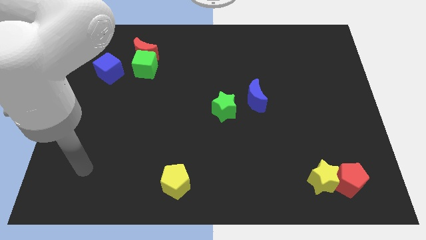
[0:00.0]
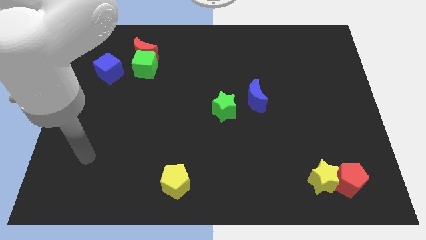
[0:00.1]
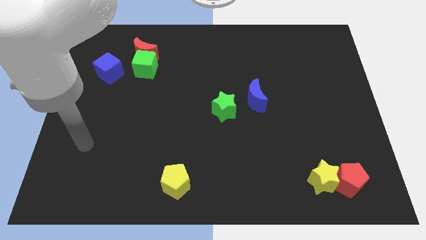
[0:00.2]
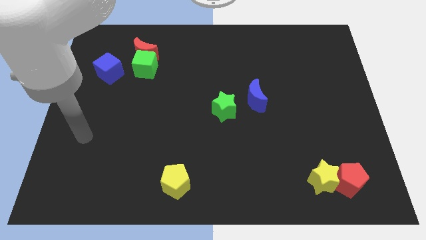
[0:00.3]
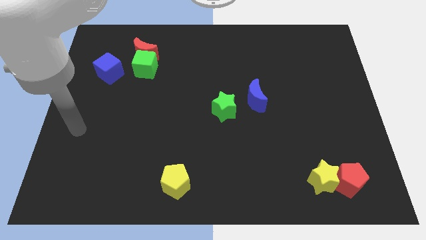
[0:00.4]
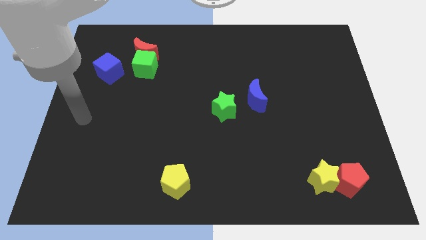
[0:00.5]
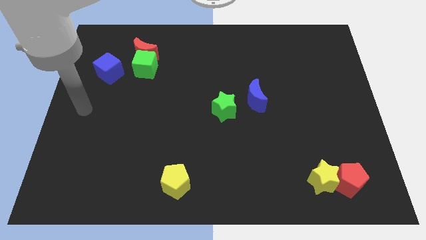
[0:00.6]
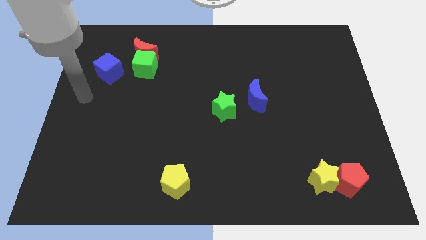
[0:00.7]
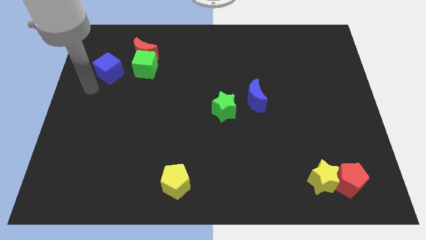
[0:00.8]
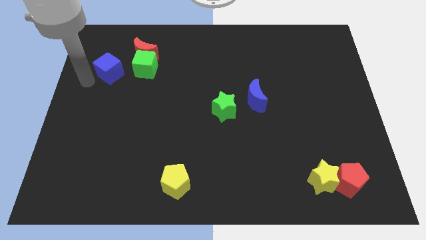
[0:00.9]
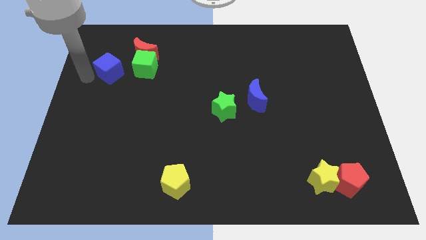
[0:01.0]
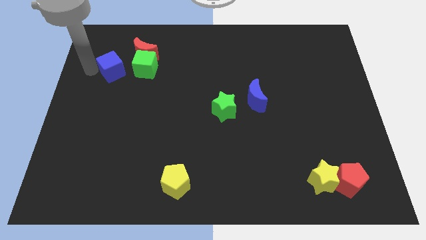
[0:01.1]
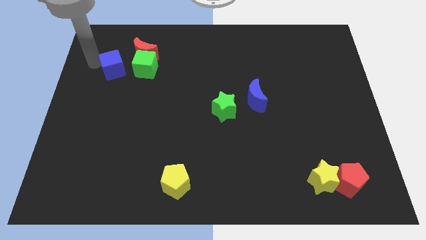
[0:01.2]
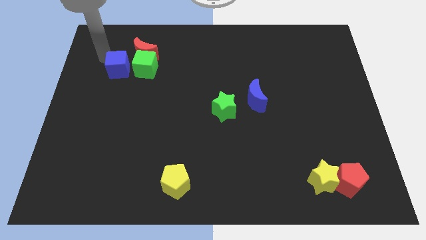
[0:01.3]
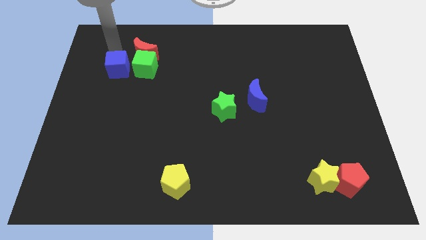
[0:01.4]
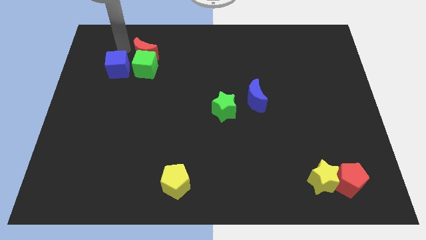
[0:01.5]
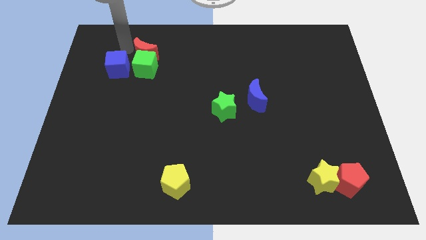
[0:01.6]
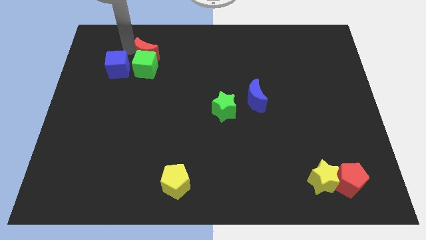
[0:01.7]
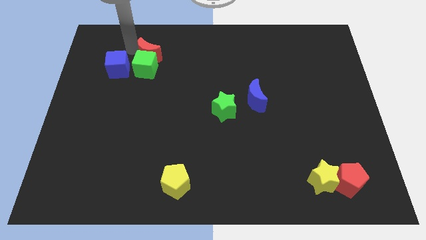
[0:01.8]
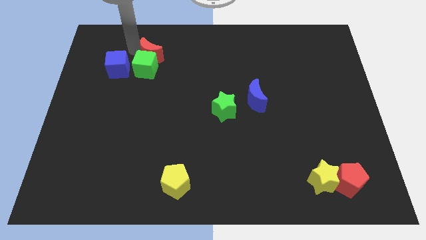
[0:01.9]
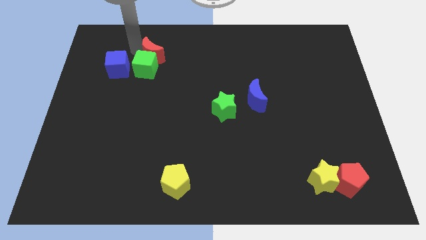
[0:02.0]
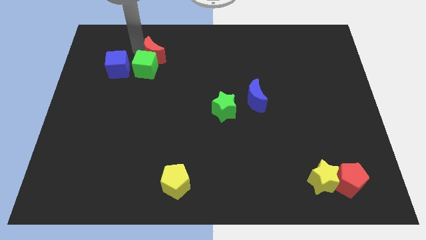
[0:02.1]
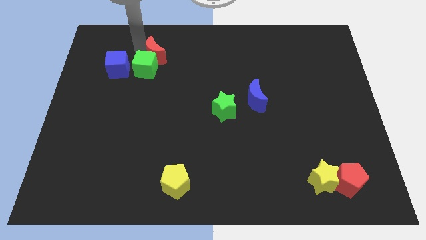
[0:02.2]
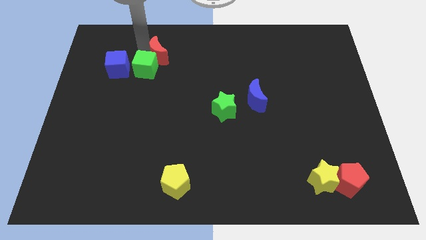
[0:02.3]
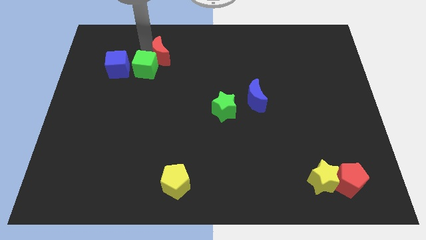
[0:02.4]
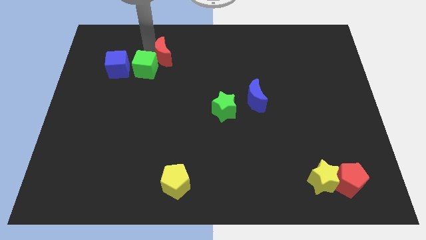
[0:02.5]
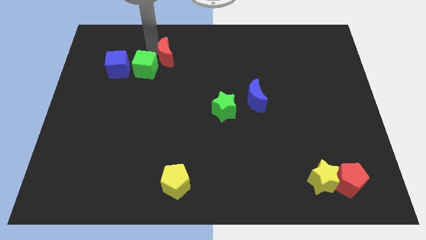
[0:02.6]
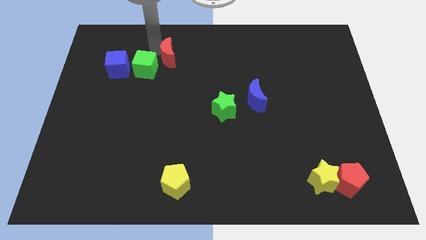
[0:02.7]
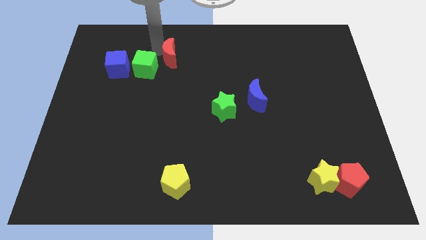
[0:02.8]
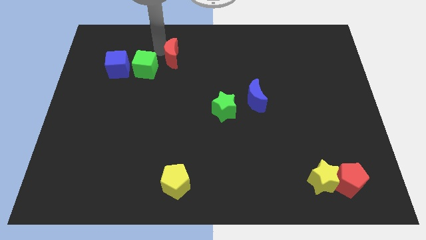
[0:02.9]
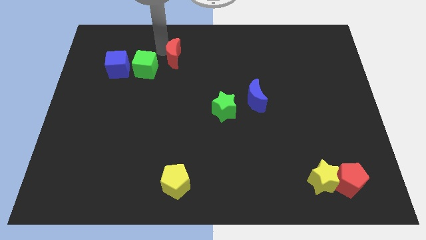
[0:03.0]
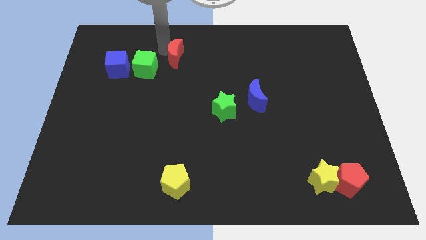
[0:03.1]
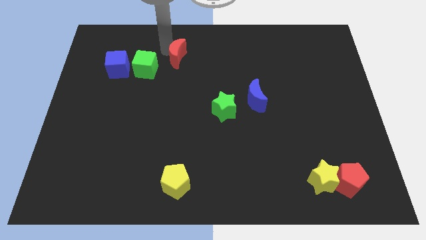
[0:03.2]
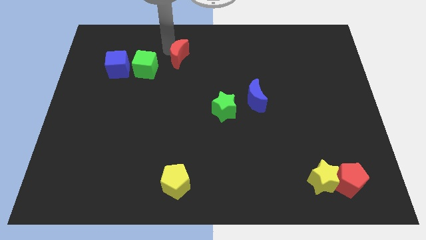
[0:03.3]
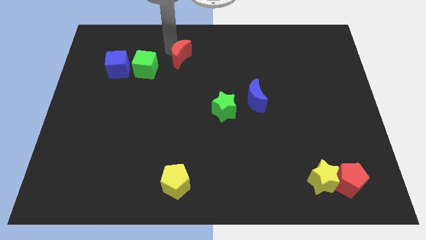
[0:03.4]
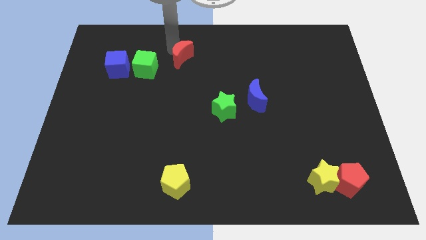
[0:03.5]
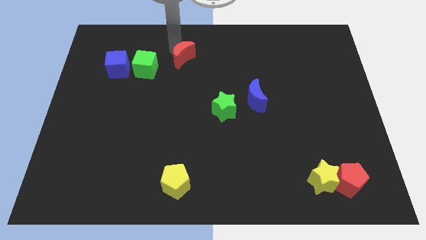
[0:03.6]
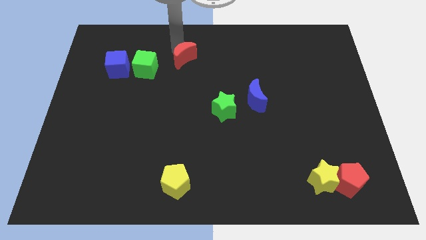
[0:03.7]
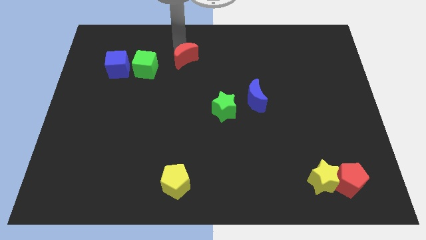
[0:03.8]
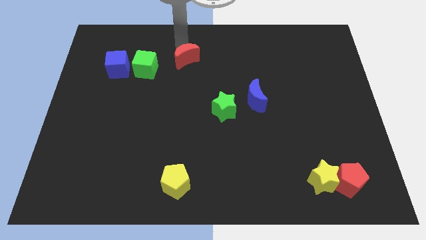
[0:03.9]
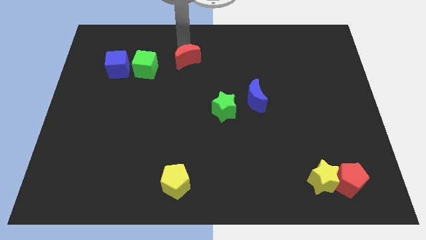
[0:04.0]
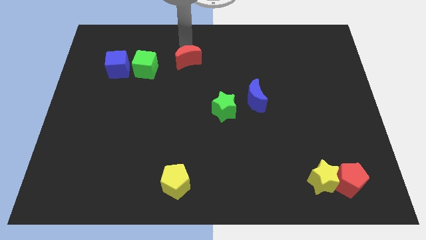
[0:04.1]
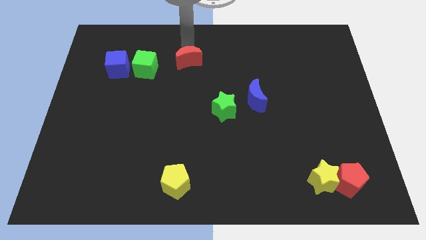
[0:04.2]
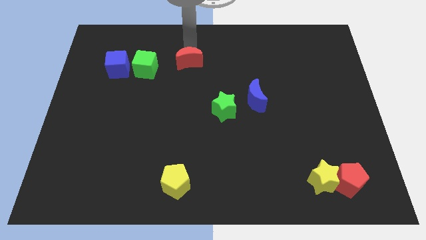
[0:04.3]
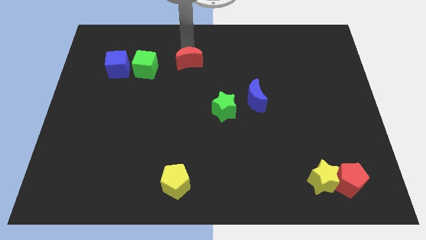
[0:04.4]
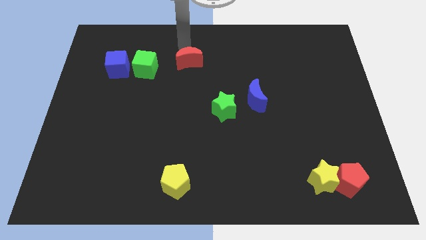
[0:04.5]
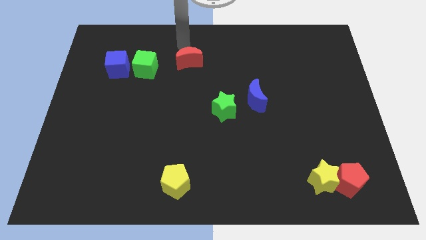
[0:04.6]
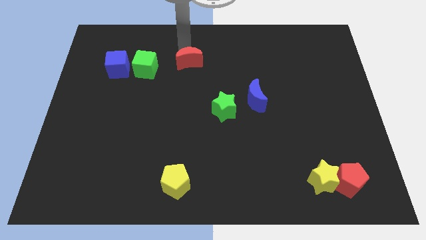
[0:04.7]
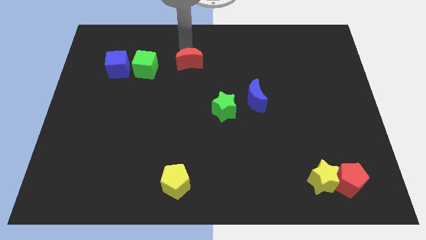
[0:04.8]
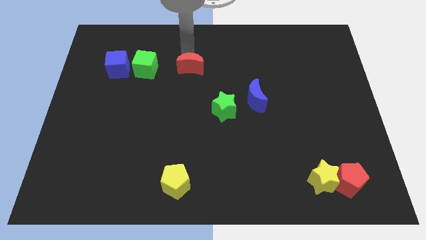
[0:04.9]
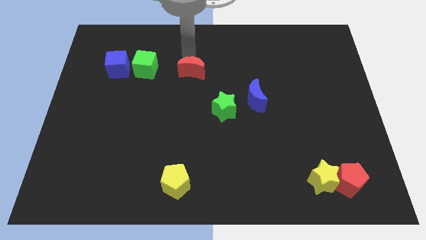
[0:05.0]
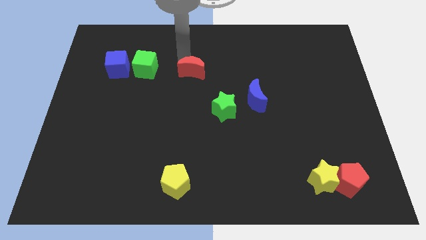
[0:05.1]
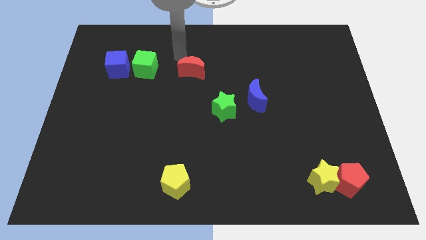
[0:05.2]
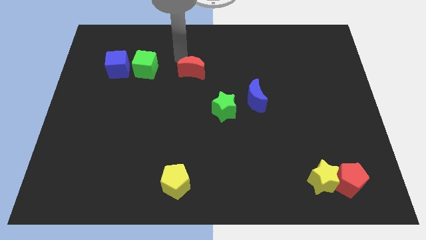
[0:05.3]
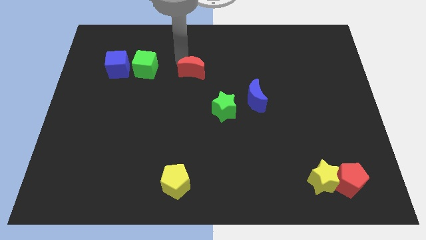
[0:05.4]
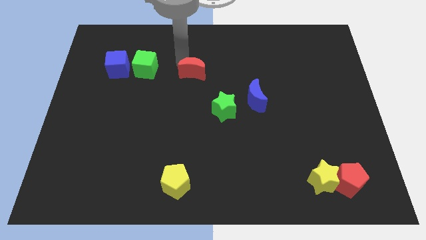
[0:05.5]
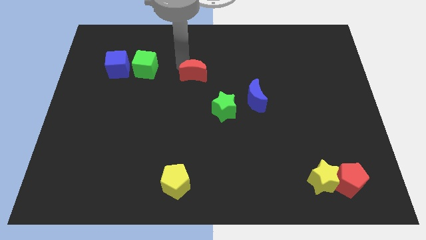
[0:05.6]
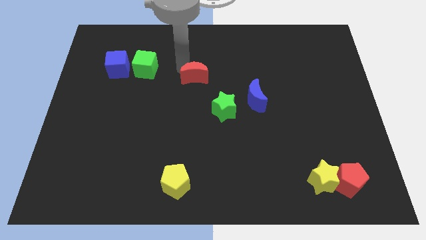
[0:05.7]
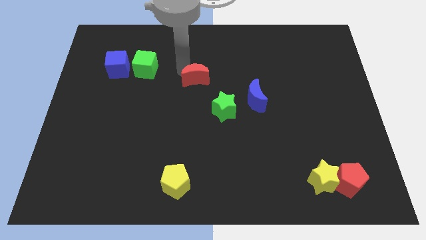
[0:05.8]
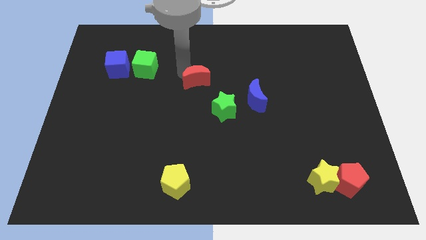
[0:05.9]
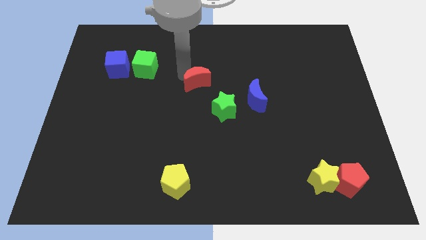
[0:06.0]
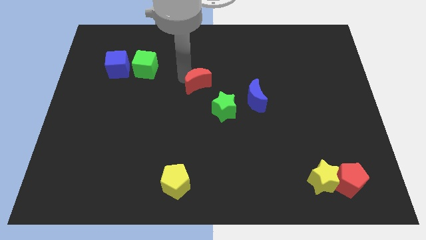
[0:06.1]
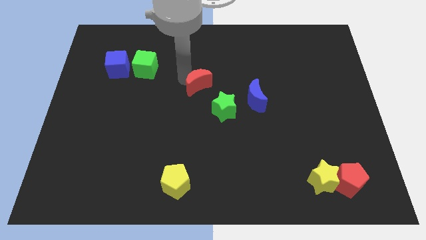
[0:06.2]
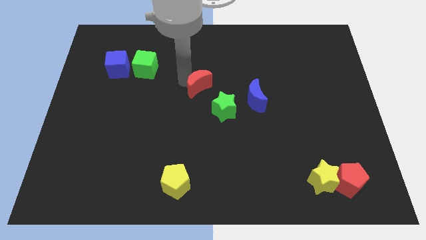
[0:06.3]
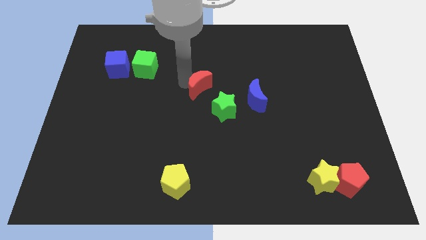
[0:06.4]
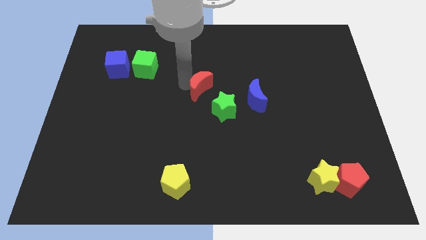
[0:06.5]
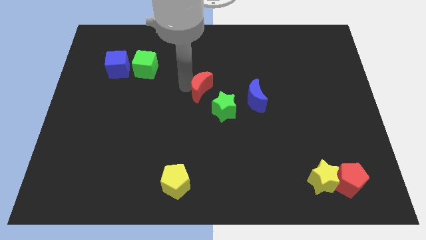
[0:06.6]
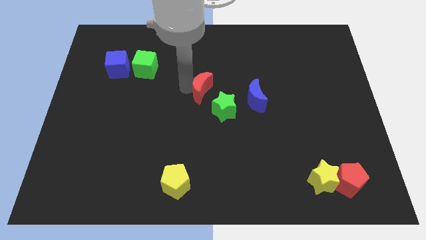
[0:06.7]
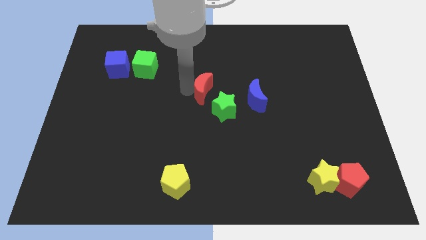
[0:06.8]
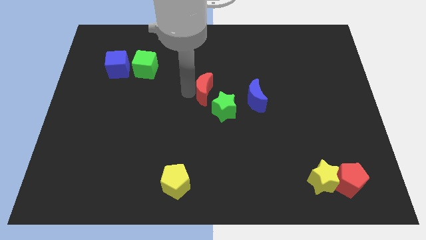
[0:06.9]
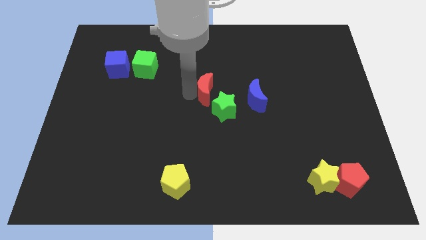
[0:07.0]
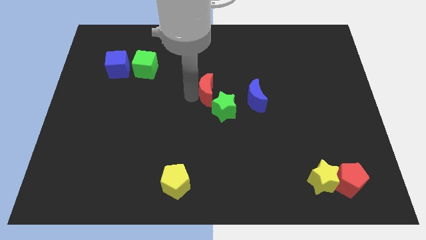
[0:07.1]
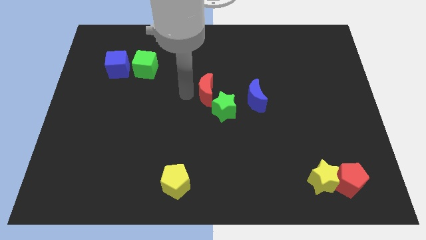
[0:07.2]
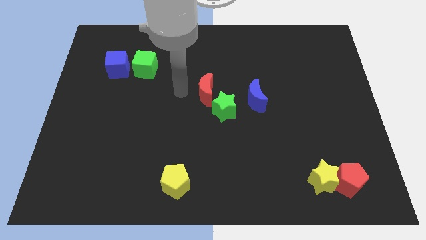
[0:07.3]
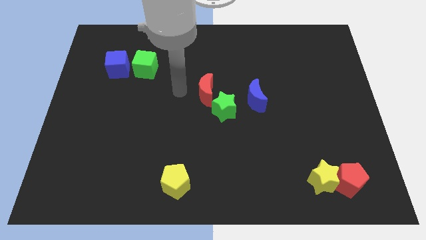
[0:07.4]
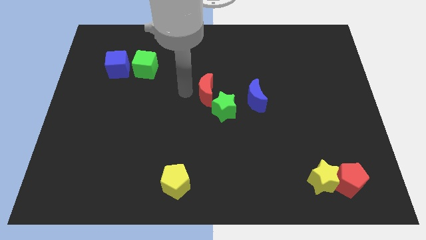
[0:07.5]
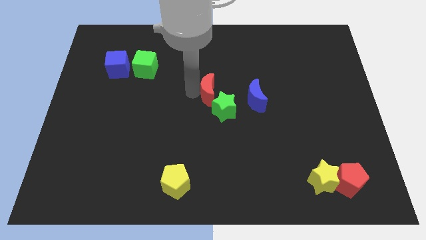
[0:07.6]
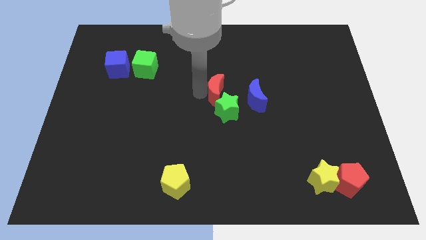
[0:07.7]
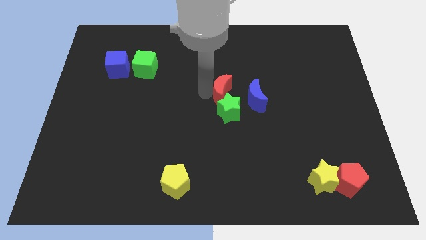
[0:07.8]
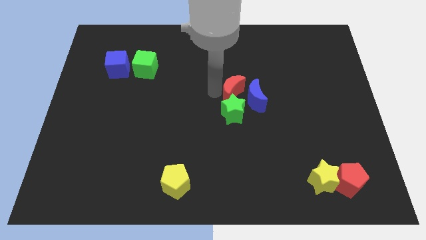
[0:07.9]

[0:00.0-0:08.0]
push the red moon to the blue moon
